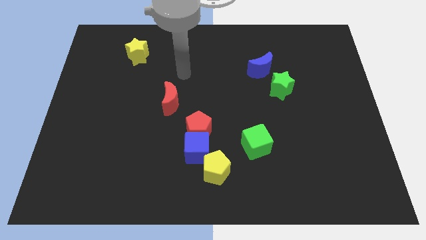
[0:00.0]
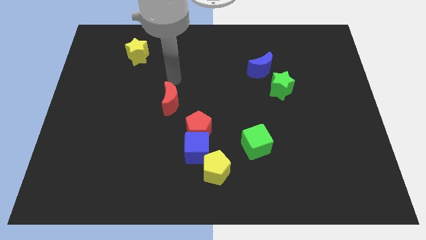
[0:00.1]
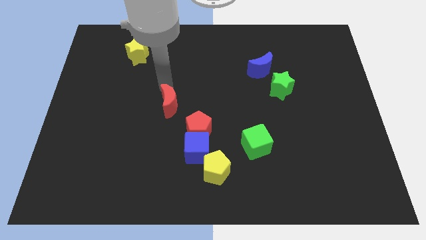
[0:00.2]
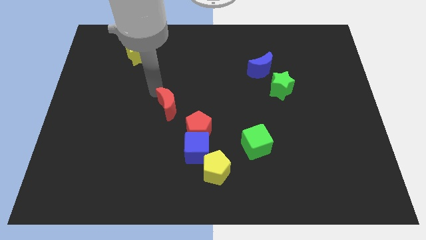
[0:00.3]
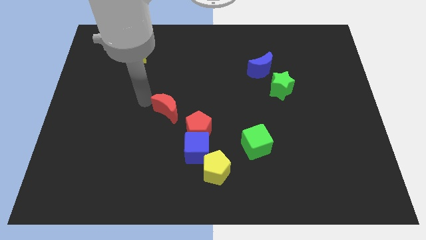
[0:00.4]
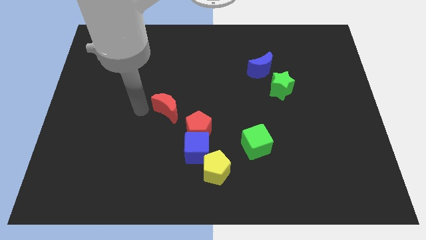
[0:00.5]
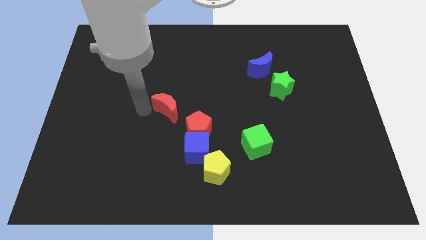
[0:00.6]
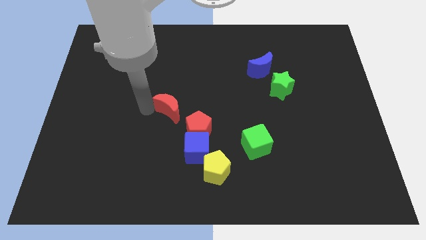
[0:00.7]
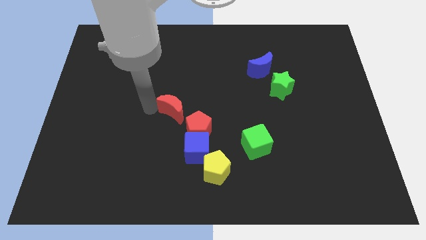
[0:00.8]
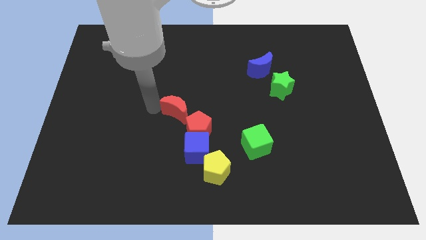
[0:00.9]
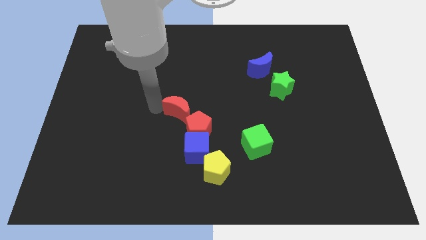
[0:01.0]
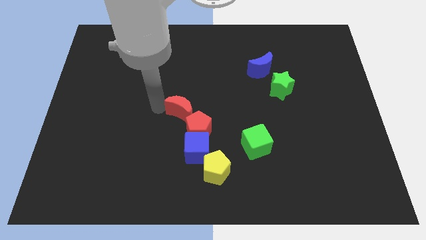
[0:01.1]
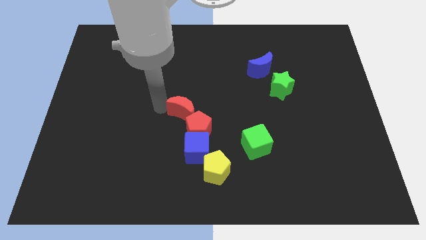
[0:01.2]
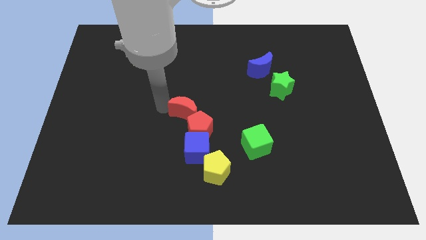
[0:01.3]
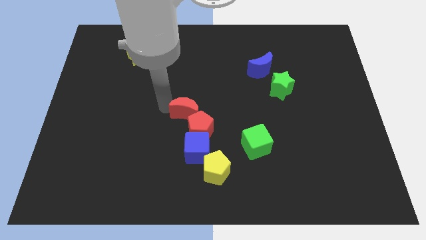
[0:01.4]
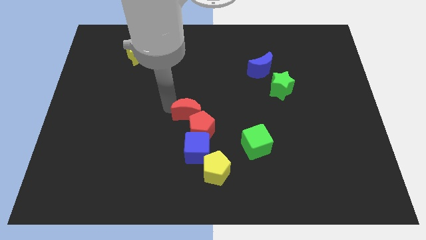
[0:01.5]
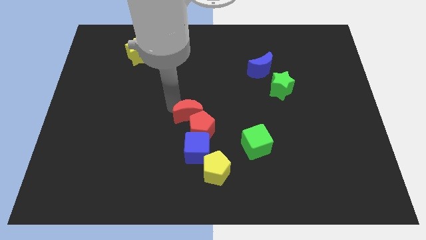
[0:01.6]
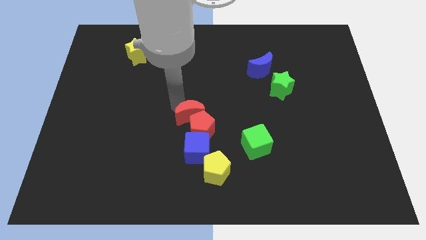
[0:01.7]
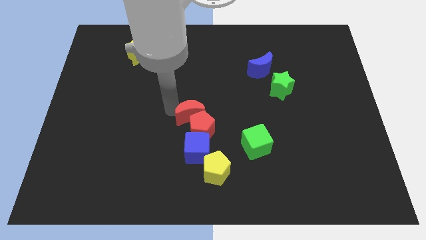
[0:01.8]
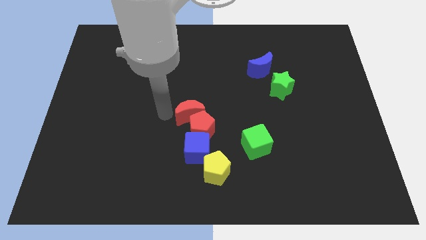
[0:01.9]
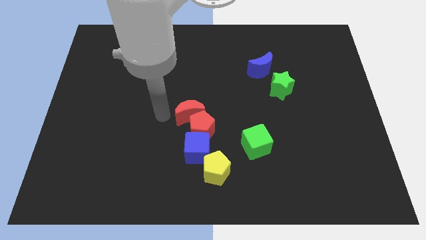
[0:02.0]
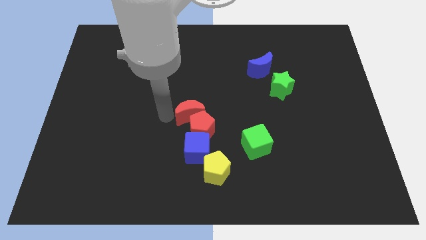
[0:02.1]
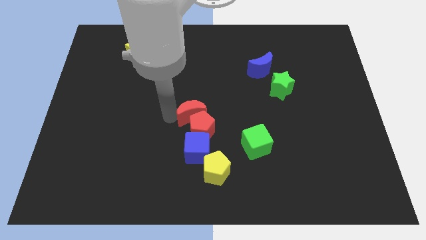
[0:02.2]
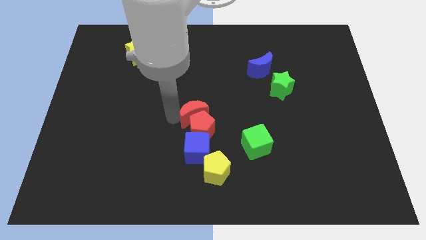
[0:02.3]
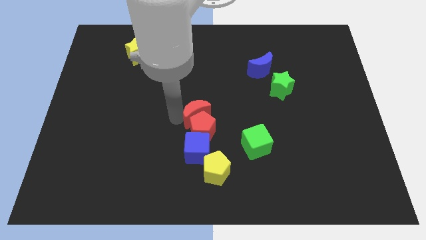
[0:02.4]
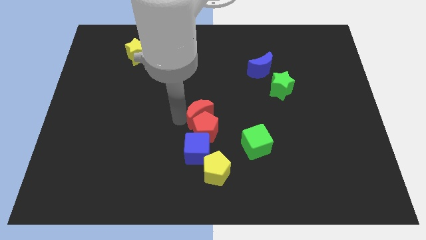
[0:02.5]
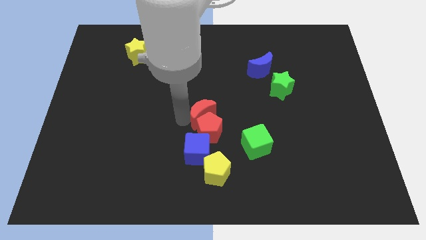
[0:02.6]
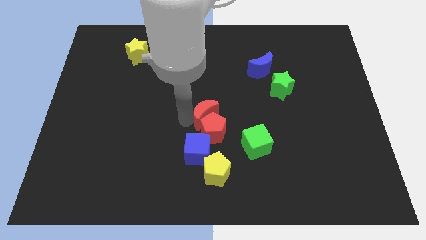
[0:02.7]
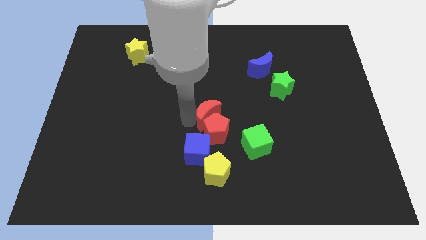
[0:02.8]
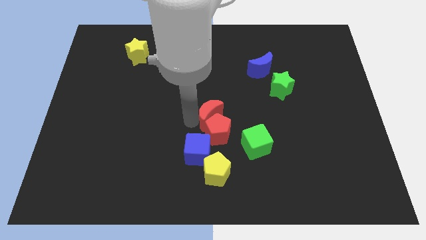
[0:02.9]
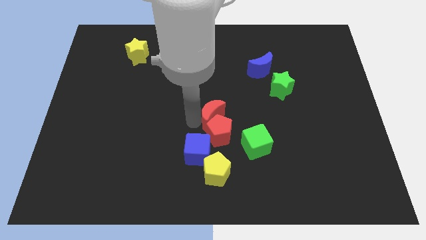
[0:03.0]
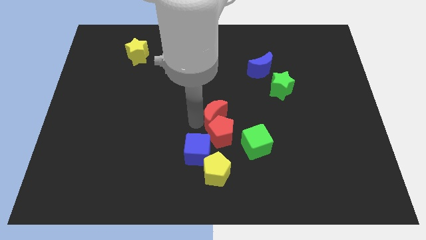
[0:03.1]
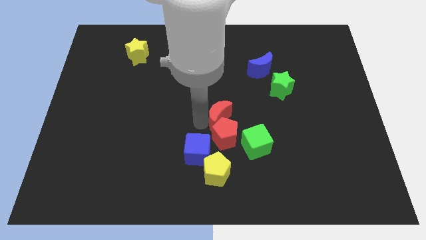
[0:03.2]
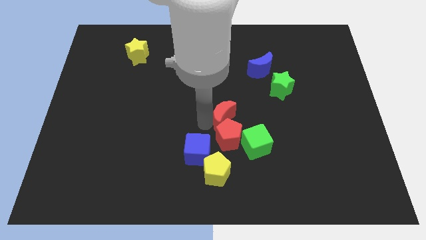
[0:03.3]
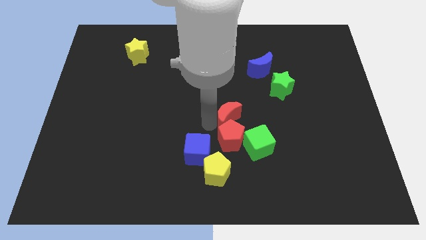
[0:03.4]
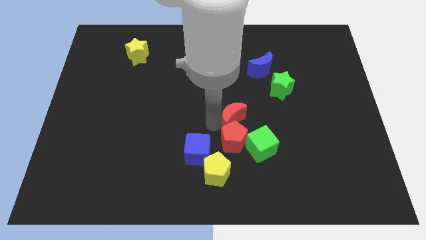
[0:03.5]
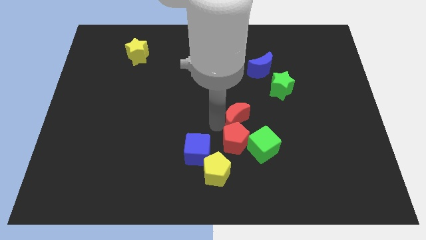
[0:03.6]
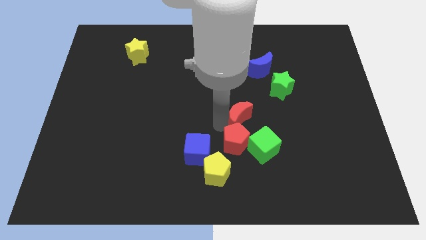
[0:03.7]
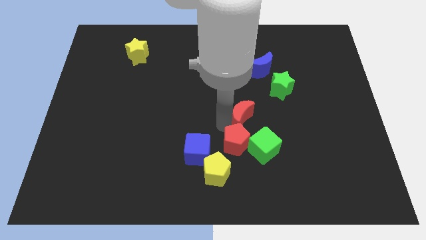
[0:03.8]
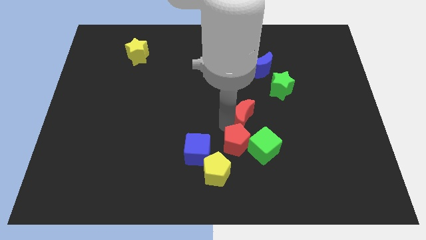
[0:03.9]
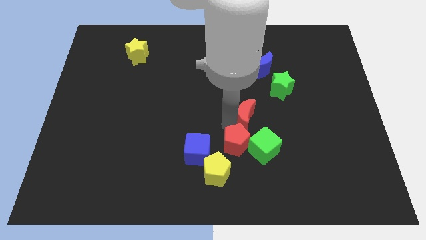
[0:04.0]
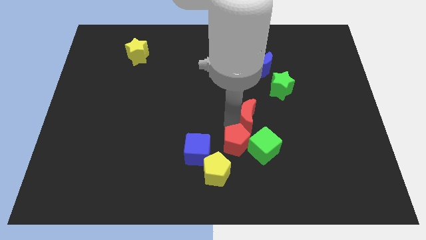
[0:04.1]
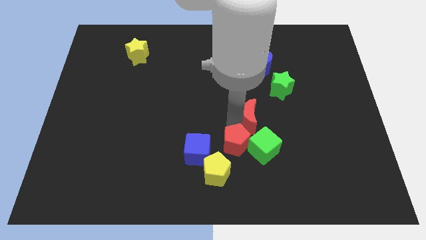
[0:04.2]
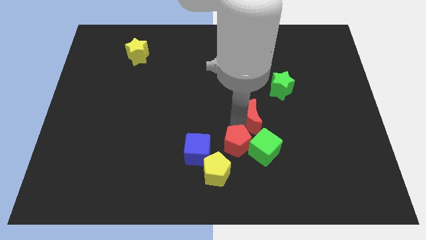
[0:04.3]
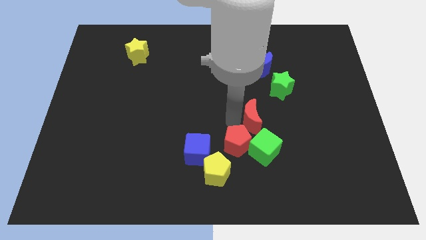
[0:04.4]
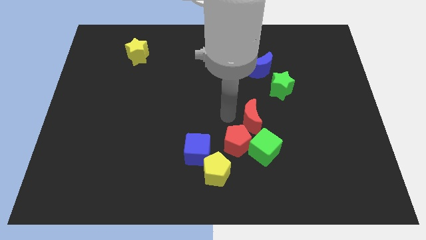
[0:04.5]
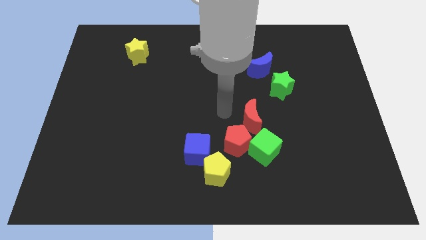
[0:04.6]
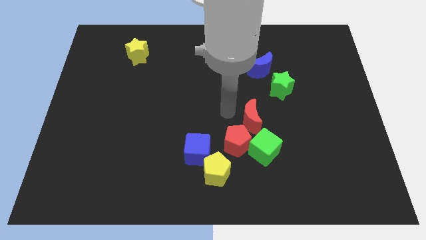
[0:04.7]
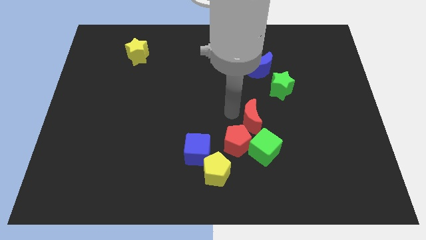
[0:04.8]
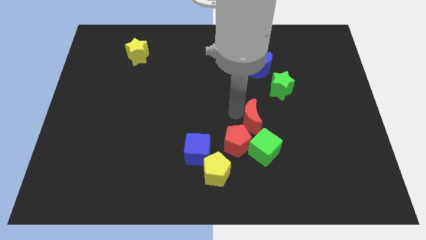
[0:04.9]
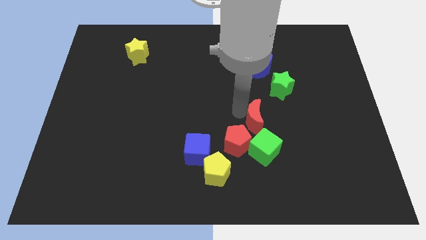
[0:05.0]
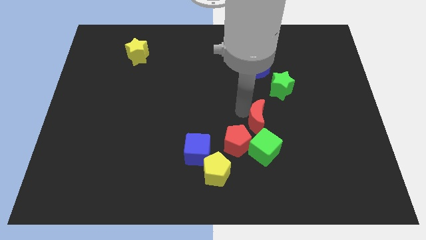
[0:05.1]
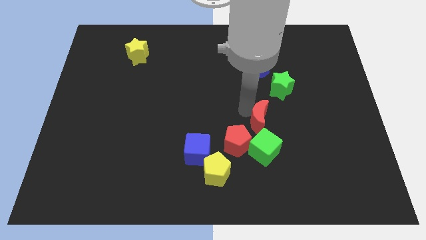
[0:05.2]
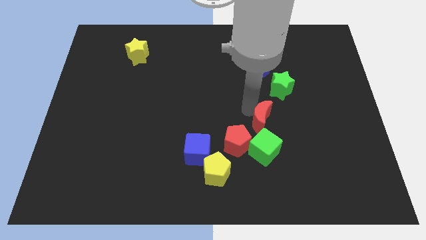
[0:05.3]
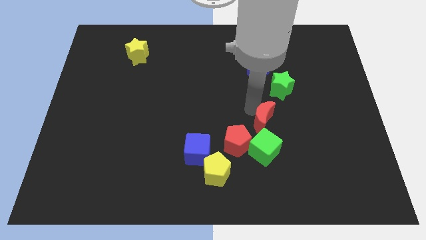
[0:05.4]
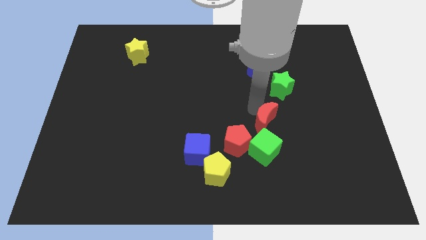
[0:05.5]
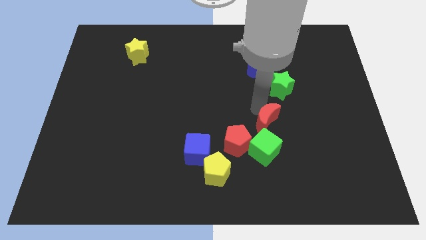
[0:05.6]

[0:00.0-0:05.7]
push the red moon to the top right of the green cube

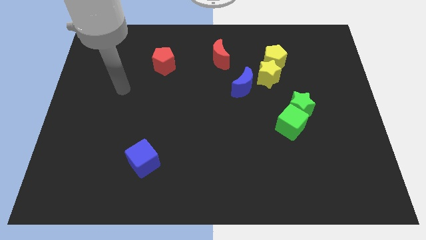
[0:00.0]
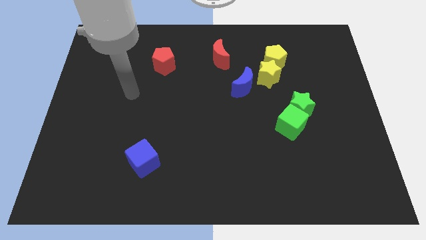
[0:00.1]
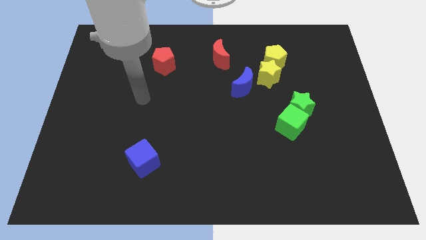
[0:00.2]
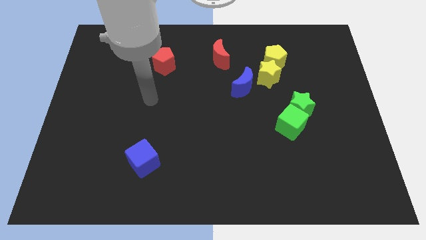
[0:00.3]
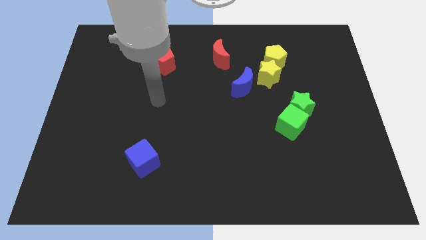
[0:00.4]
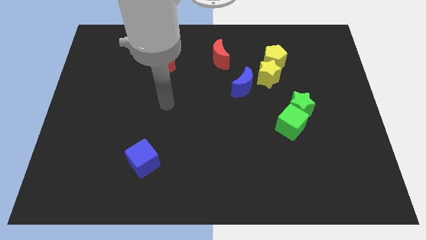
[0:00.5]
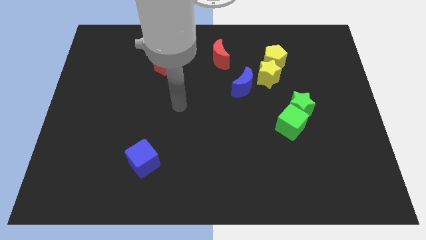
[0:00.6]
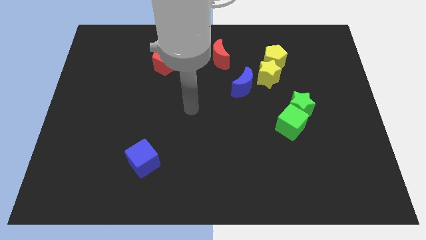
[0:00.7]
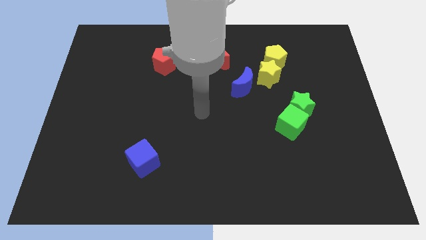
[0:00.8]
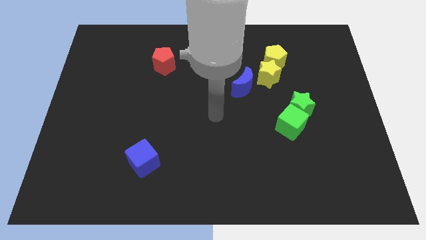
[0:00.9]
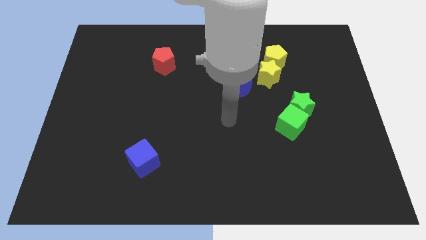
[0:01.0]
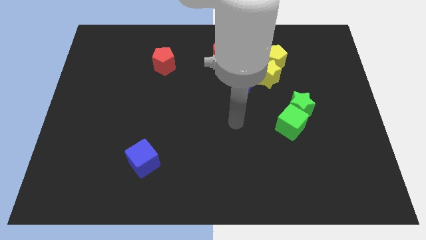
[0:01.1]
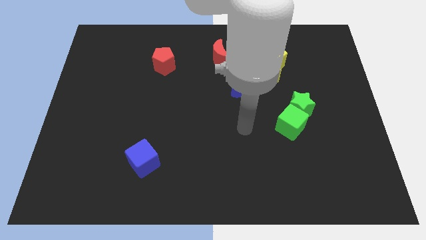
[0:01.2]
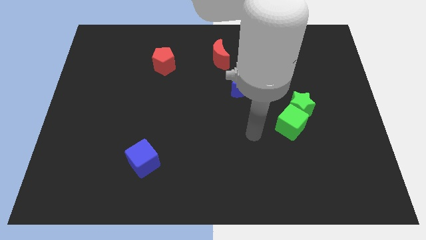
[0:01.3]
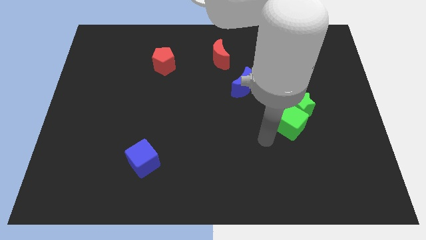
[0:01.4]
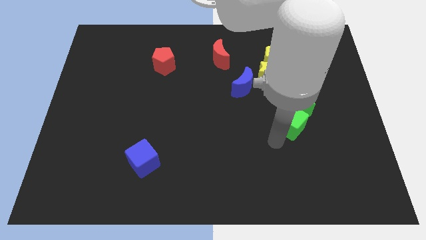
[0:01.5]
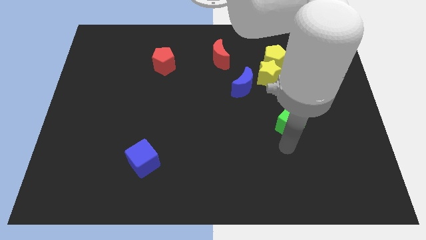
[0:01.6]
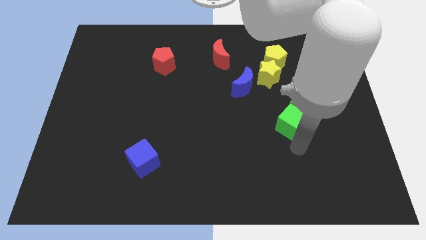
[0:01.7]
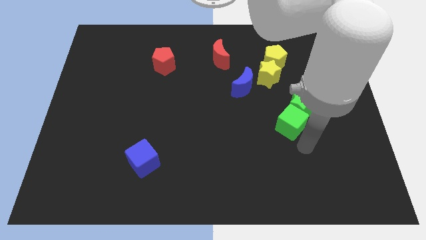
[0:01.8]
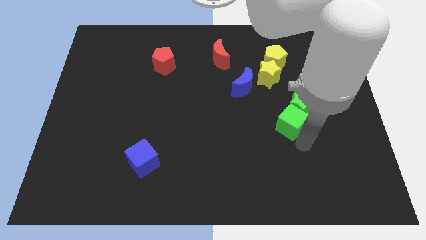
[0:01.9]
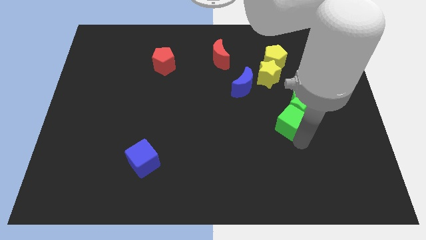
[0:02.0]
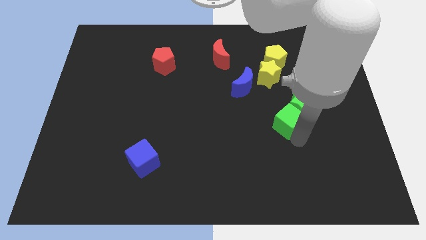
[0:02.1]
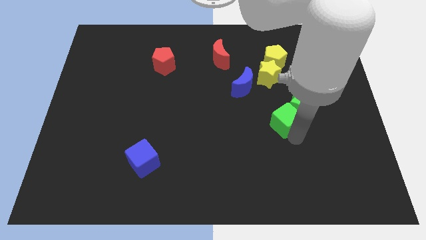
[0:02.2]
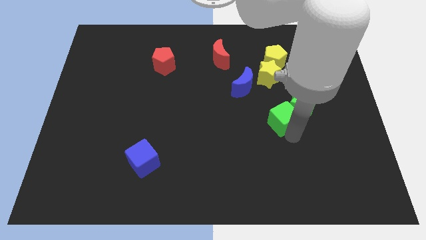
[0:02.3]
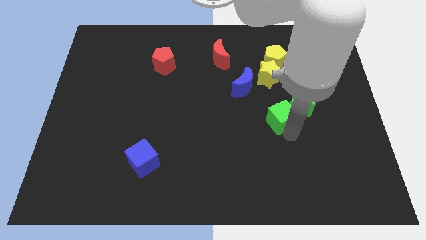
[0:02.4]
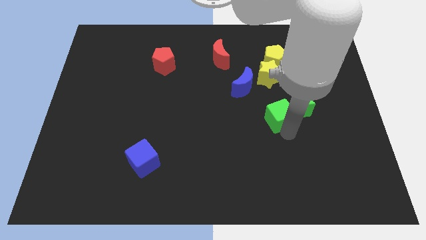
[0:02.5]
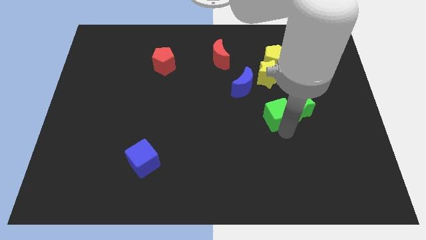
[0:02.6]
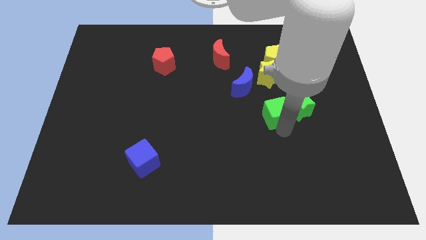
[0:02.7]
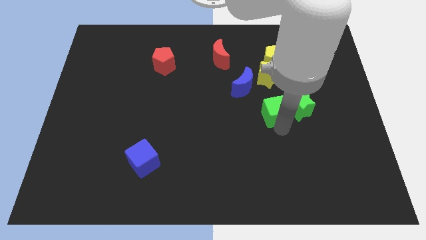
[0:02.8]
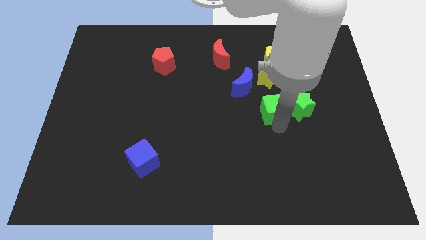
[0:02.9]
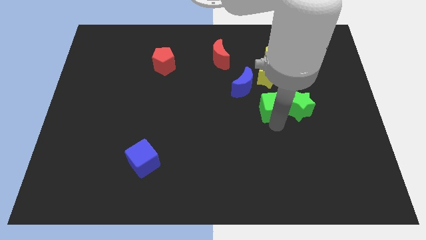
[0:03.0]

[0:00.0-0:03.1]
put the green cube diagonally up and to the left of the green star

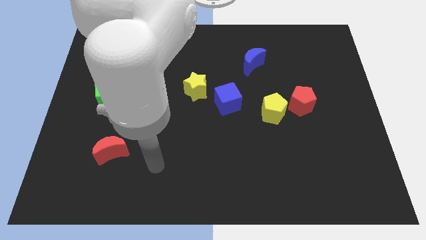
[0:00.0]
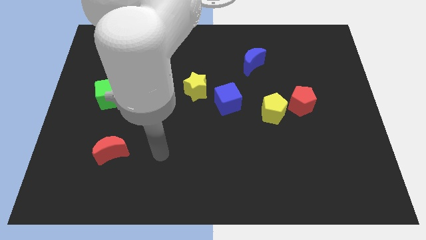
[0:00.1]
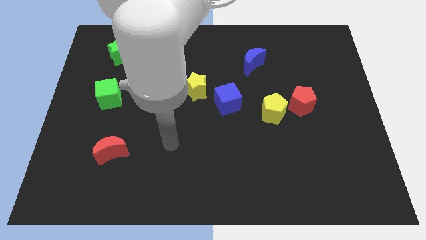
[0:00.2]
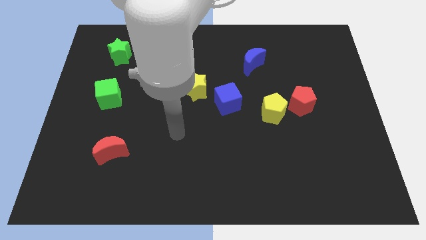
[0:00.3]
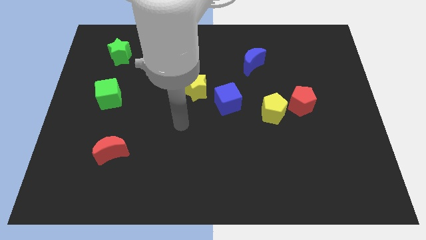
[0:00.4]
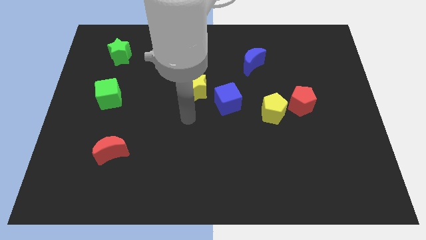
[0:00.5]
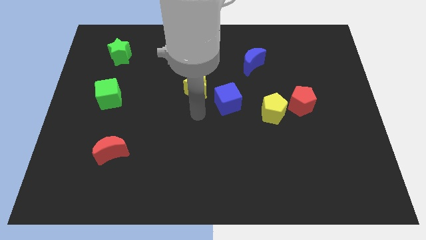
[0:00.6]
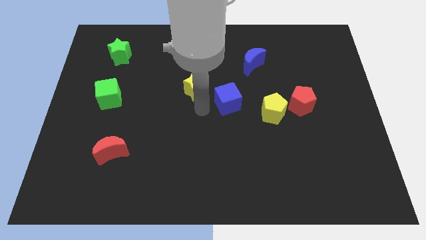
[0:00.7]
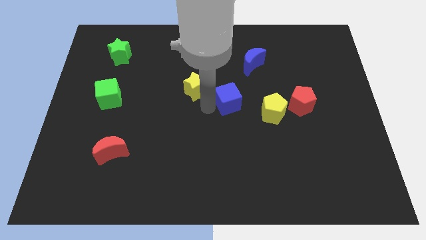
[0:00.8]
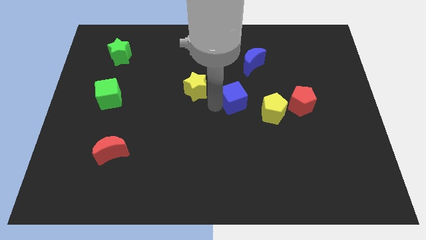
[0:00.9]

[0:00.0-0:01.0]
slide the blue cube to the top left of the yellow pentagon
